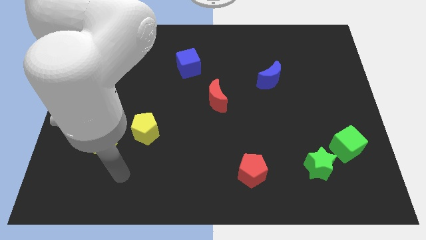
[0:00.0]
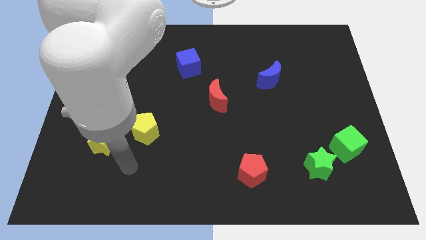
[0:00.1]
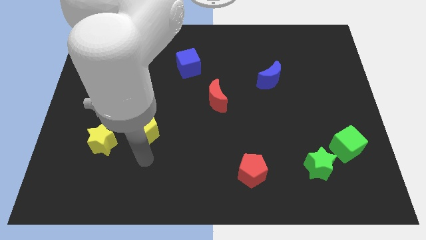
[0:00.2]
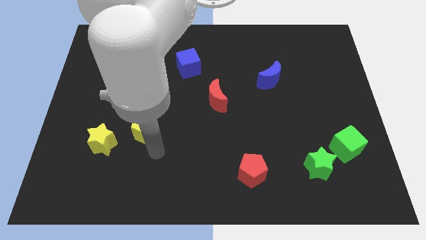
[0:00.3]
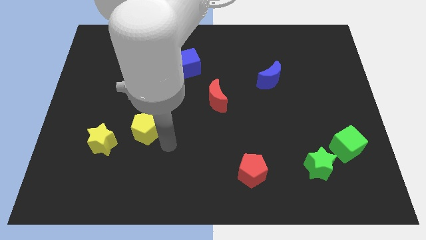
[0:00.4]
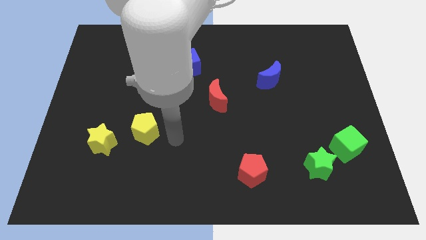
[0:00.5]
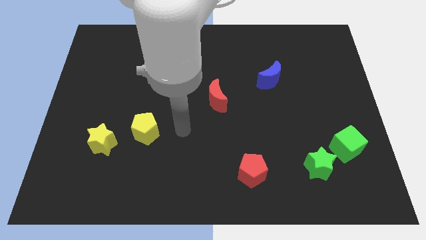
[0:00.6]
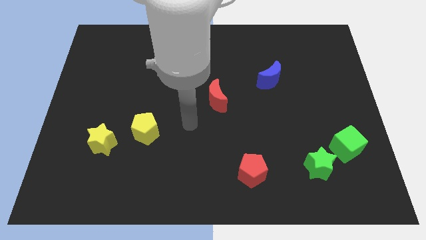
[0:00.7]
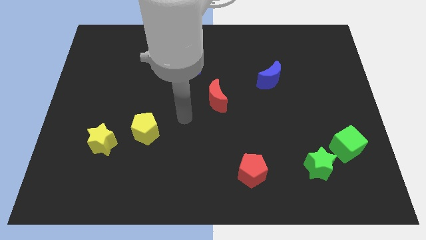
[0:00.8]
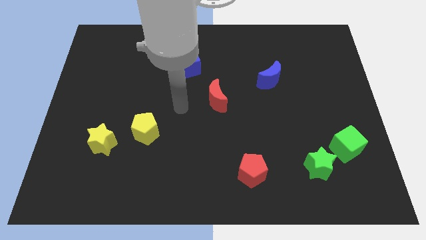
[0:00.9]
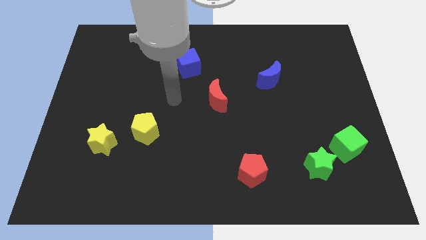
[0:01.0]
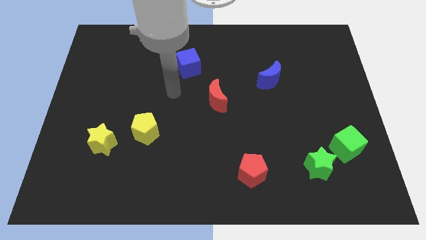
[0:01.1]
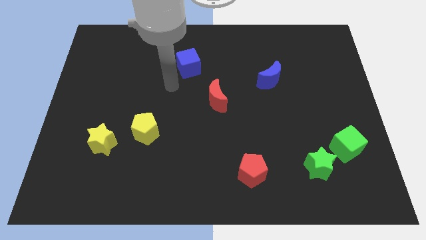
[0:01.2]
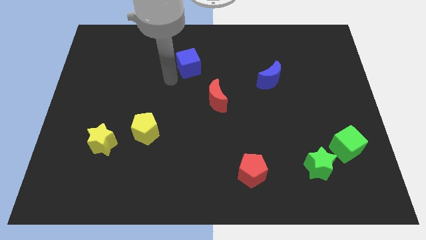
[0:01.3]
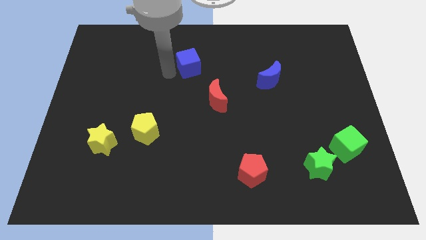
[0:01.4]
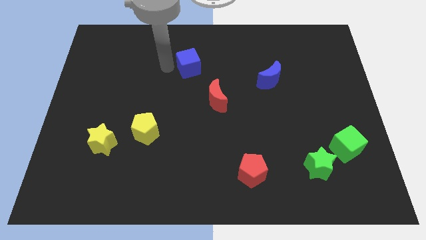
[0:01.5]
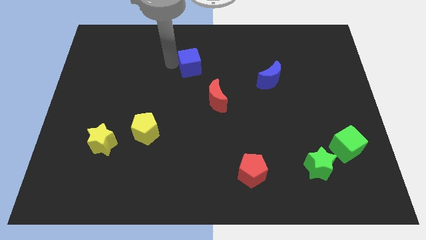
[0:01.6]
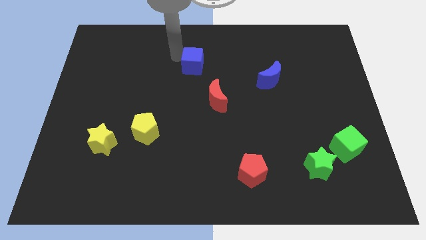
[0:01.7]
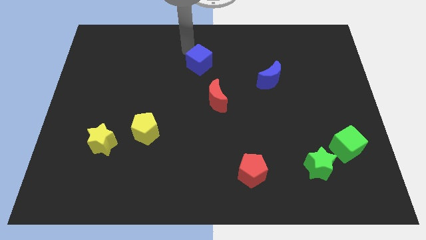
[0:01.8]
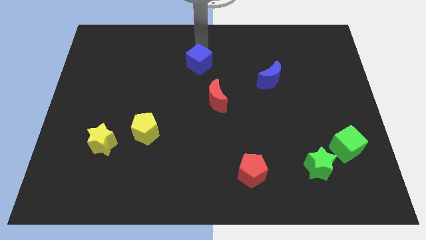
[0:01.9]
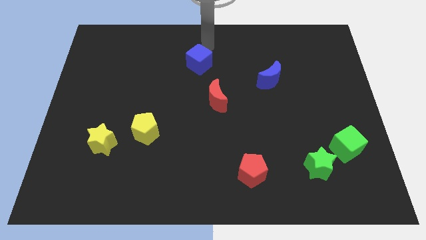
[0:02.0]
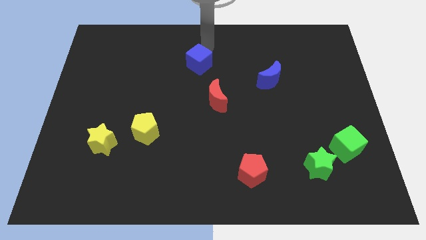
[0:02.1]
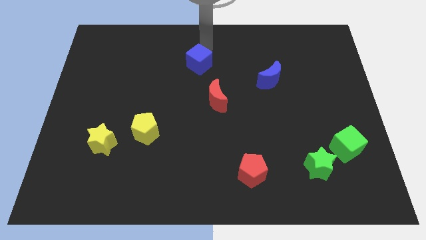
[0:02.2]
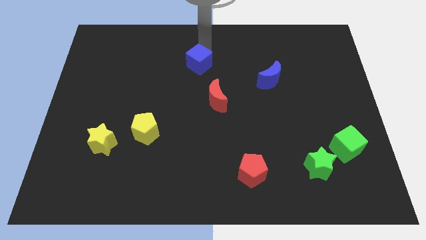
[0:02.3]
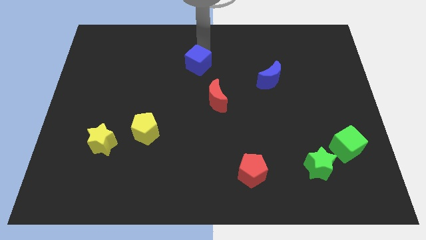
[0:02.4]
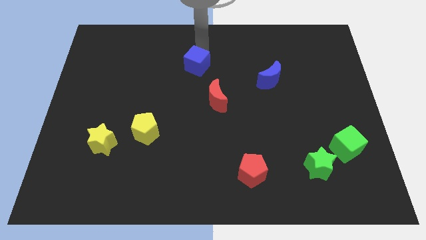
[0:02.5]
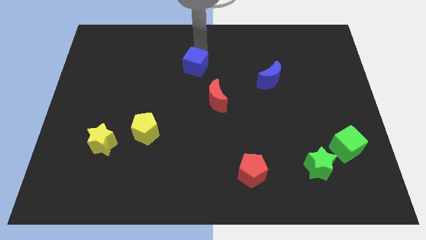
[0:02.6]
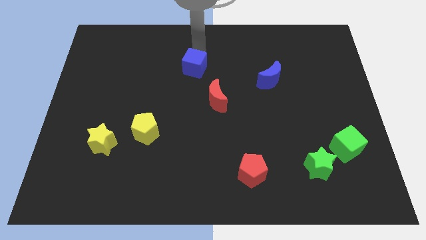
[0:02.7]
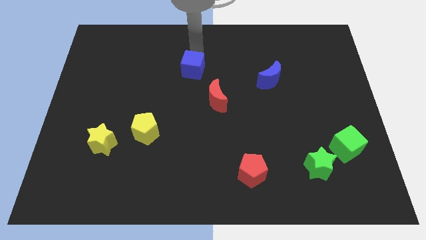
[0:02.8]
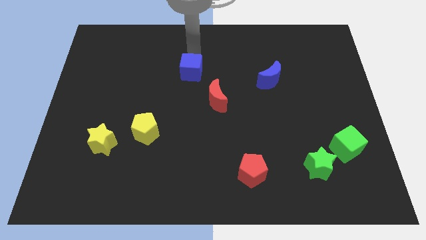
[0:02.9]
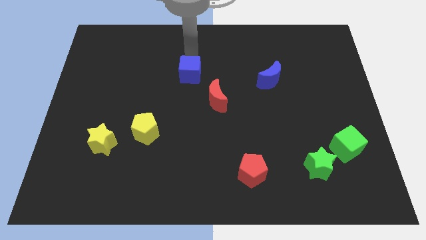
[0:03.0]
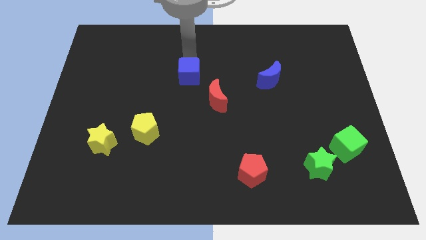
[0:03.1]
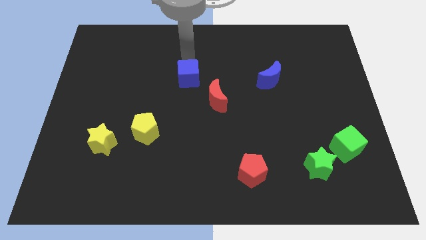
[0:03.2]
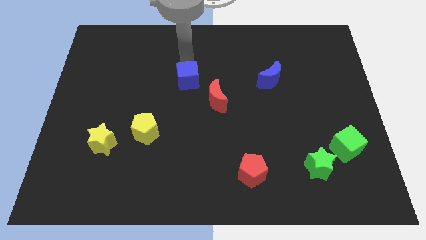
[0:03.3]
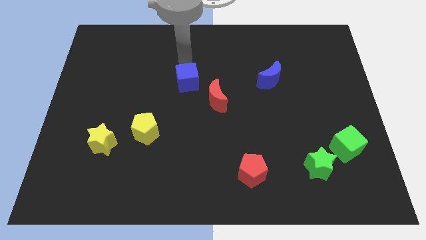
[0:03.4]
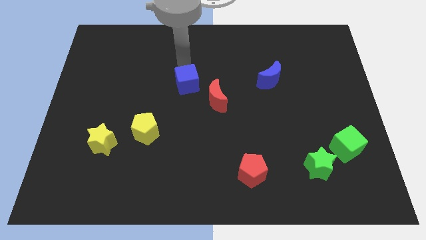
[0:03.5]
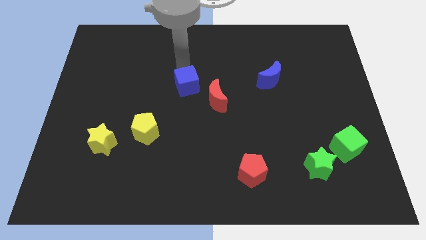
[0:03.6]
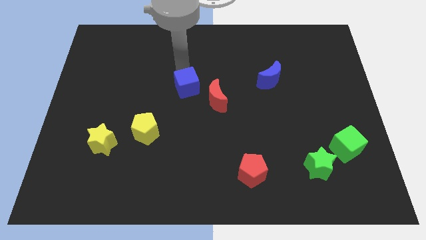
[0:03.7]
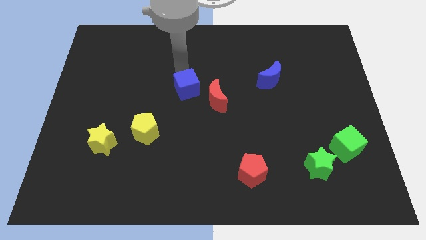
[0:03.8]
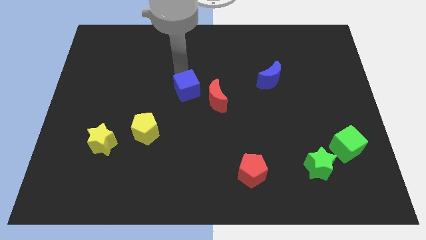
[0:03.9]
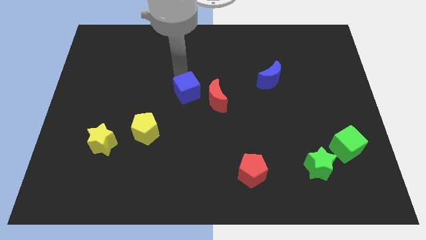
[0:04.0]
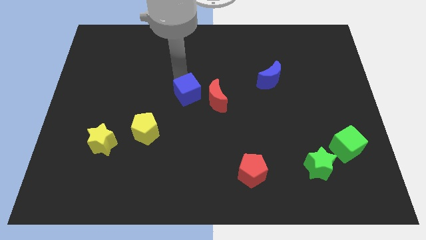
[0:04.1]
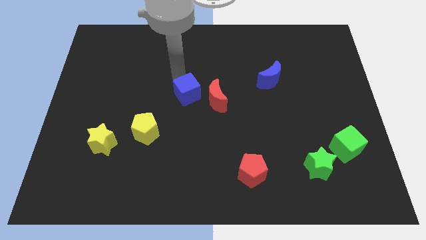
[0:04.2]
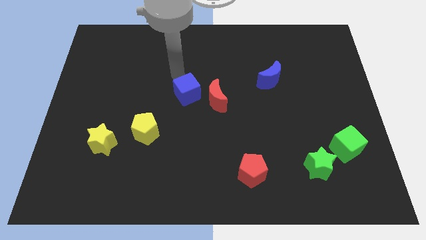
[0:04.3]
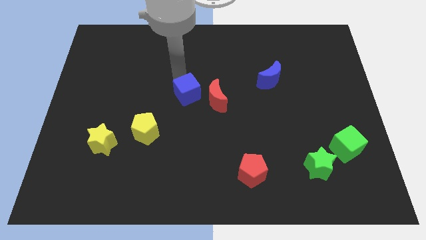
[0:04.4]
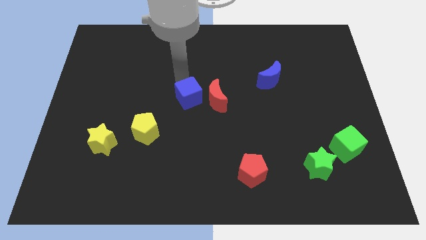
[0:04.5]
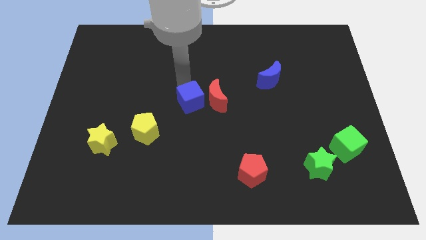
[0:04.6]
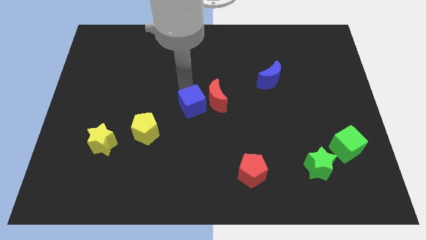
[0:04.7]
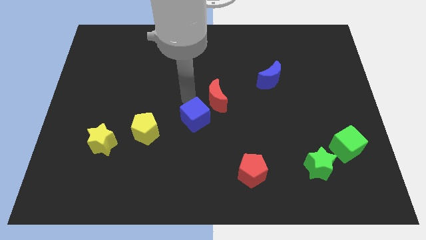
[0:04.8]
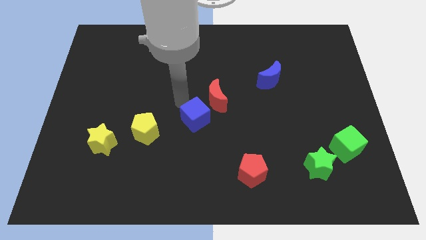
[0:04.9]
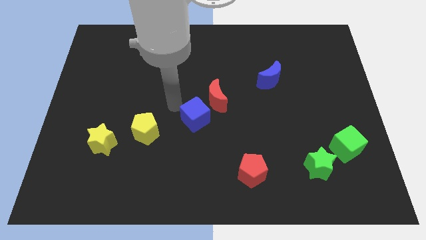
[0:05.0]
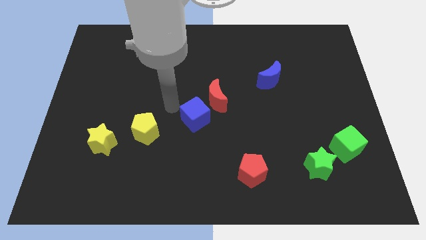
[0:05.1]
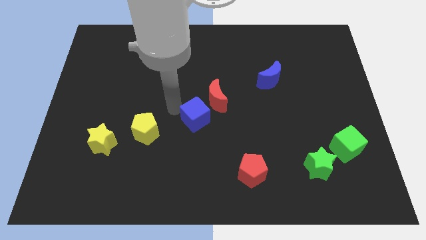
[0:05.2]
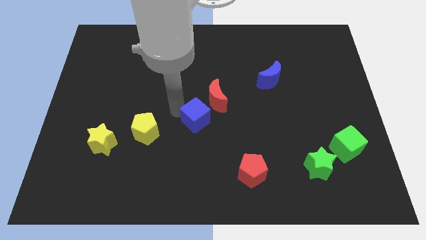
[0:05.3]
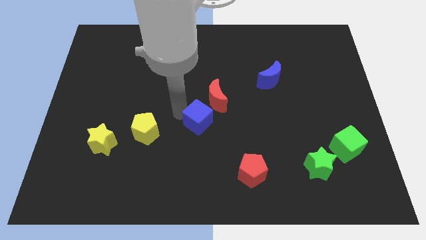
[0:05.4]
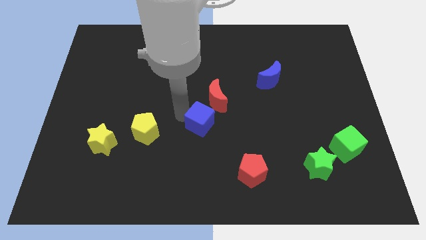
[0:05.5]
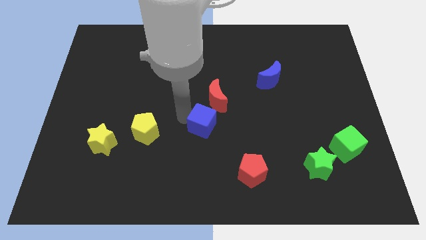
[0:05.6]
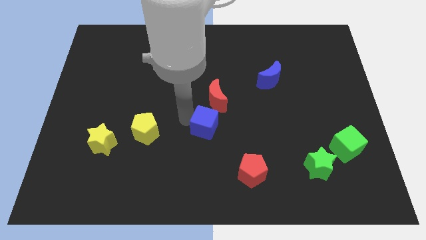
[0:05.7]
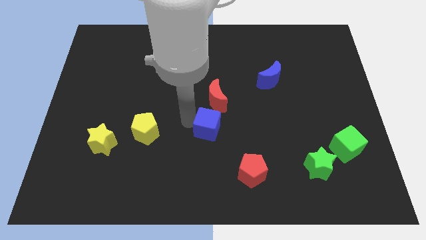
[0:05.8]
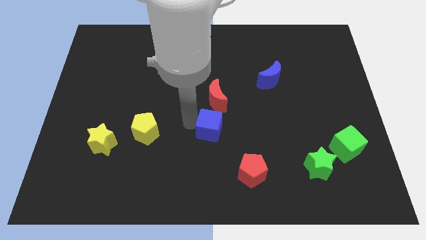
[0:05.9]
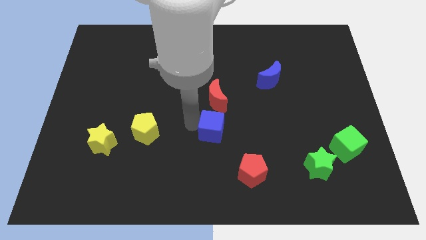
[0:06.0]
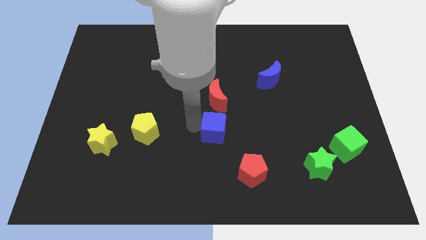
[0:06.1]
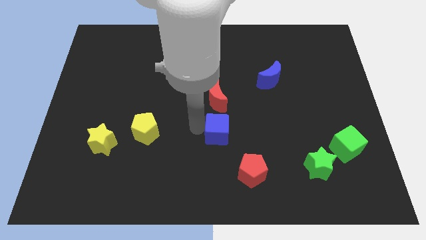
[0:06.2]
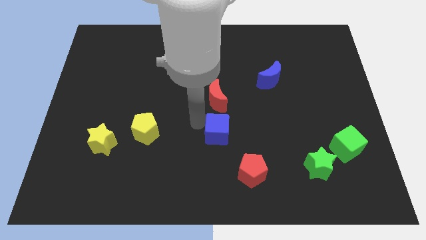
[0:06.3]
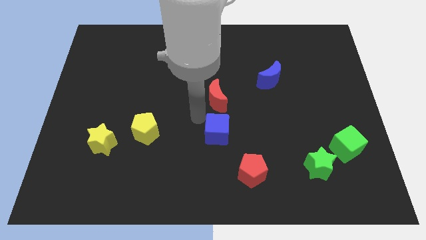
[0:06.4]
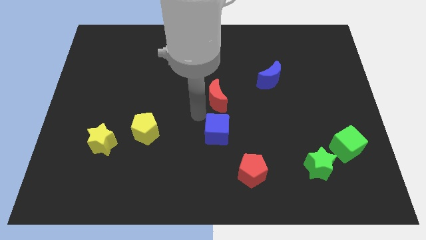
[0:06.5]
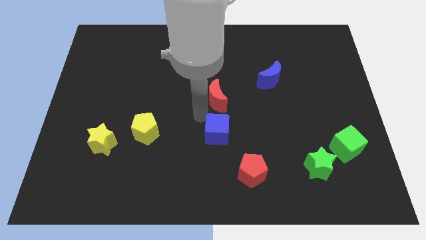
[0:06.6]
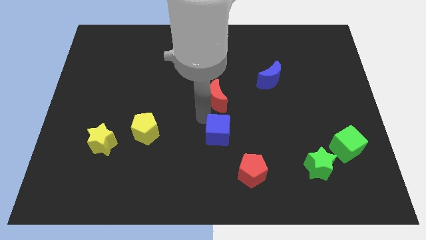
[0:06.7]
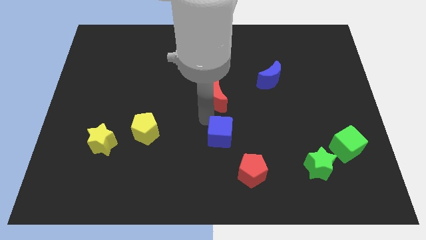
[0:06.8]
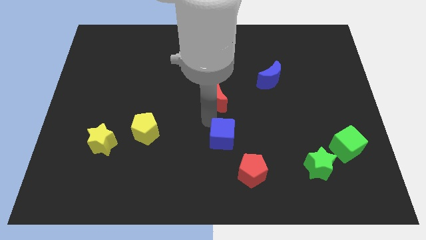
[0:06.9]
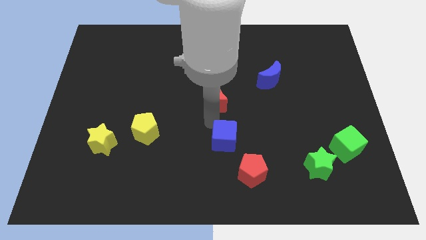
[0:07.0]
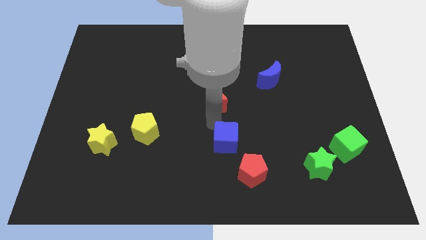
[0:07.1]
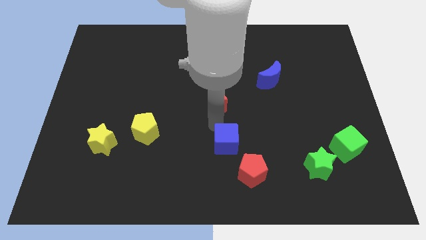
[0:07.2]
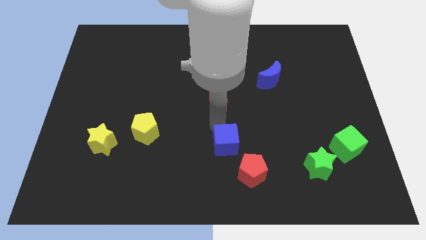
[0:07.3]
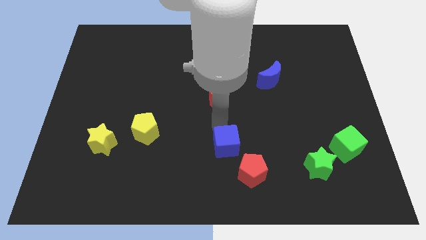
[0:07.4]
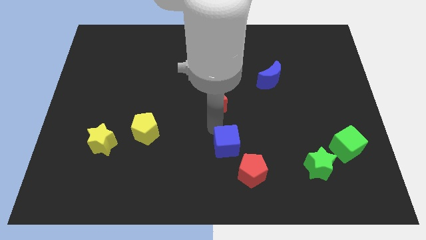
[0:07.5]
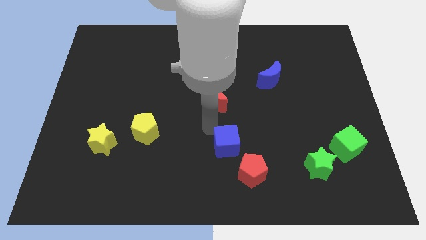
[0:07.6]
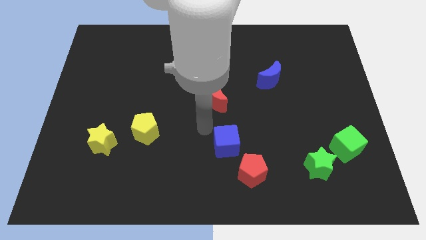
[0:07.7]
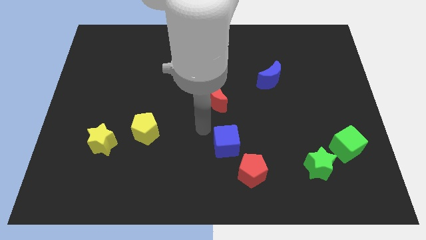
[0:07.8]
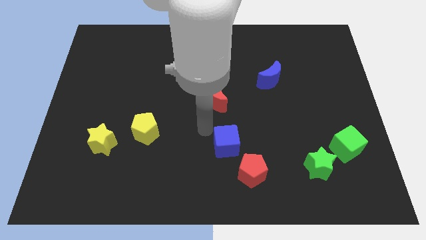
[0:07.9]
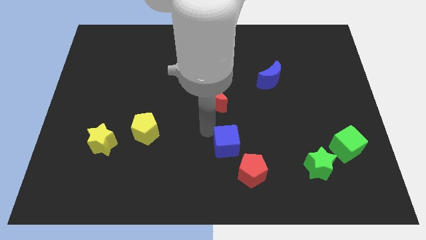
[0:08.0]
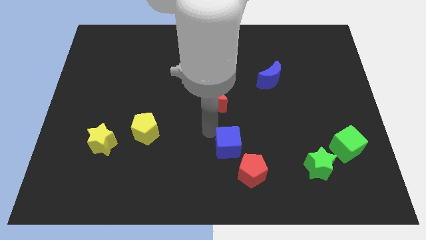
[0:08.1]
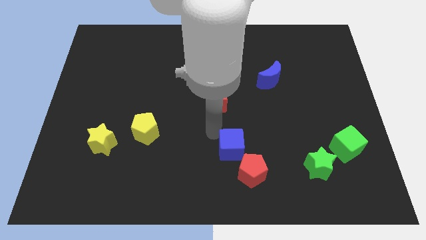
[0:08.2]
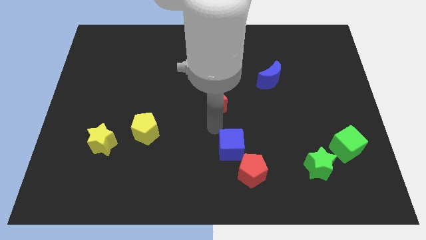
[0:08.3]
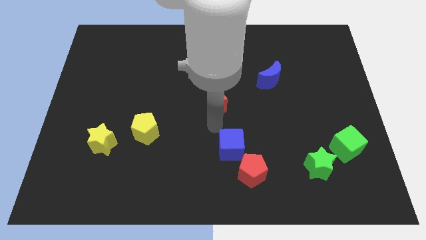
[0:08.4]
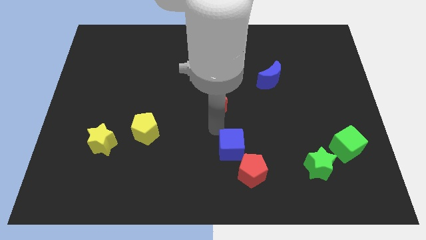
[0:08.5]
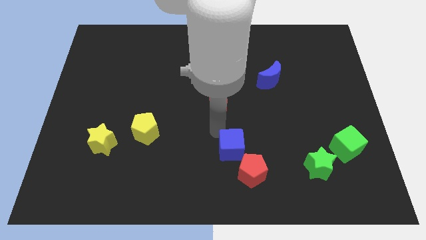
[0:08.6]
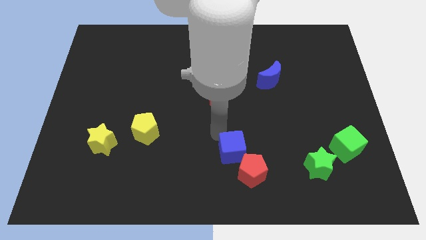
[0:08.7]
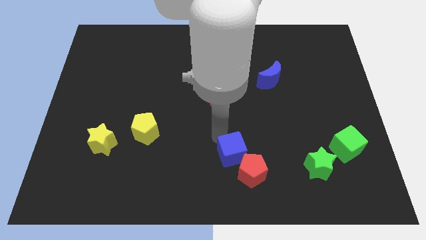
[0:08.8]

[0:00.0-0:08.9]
move the blue cube towards the red pentagon
